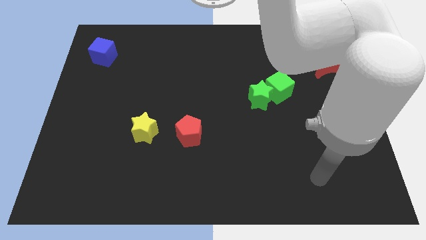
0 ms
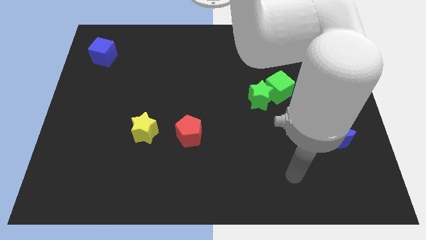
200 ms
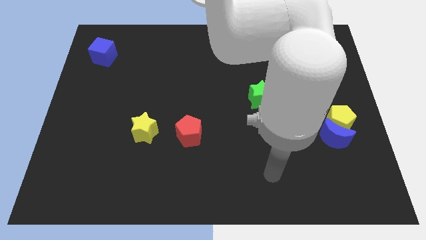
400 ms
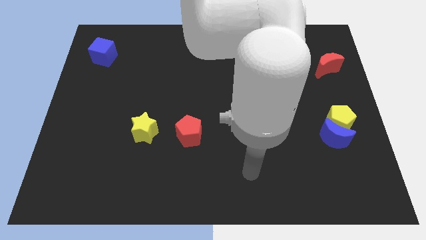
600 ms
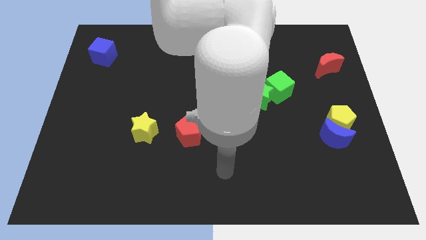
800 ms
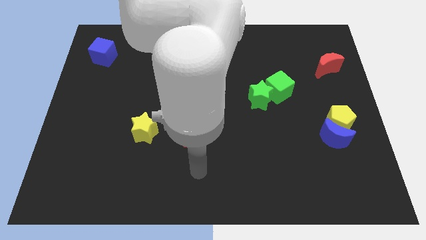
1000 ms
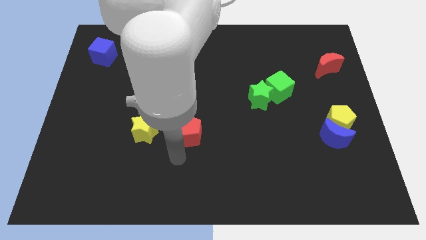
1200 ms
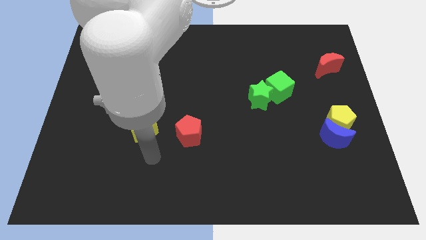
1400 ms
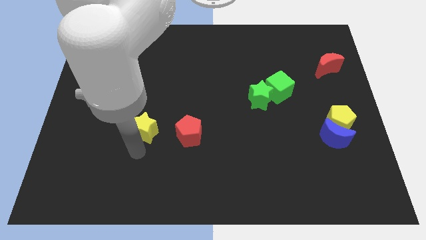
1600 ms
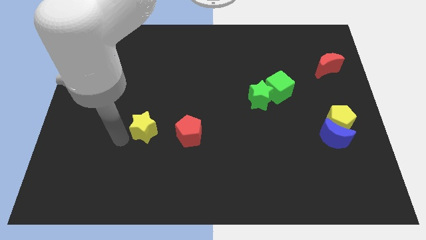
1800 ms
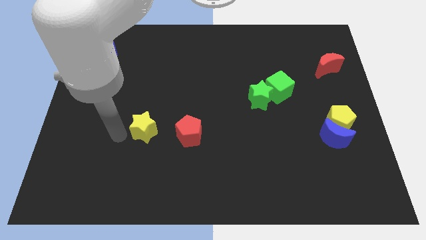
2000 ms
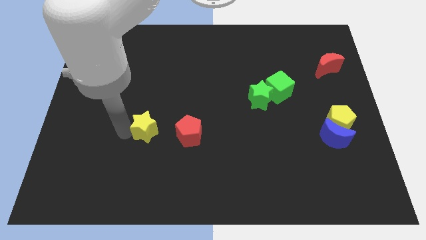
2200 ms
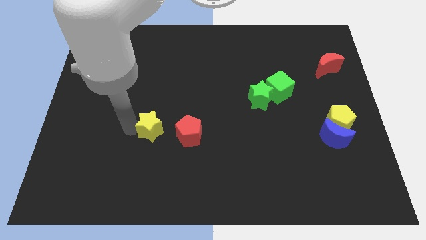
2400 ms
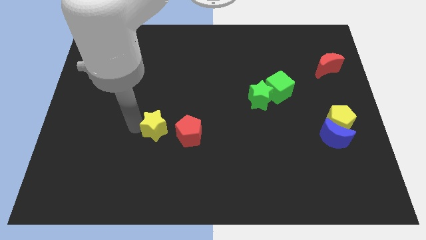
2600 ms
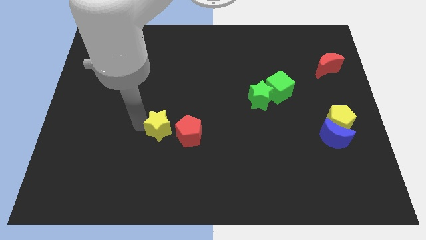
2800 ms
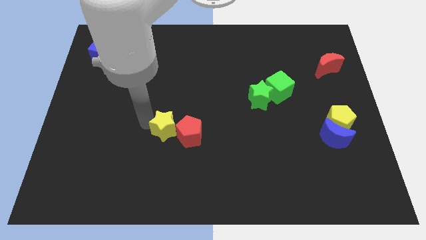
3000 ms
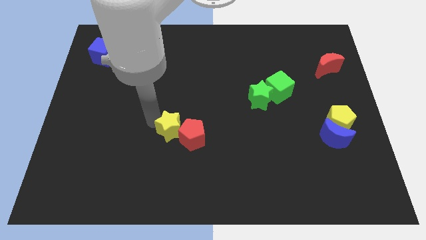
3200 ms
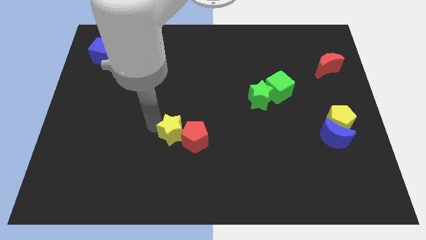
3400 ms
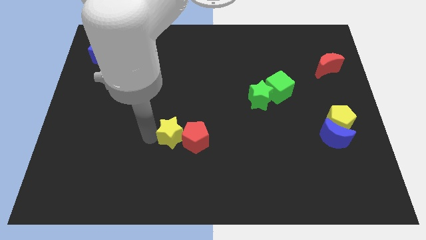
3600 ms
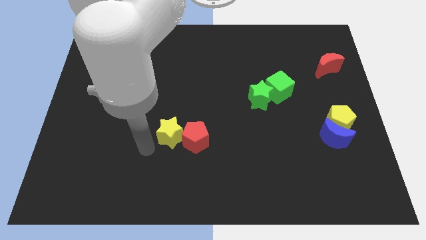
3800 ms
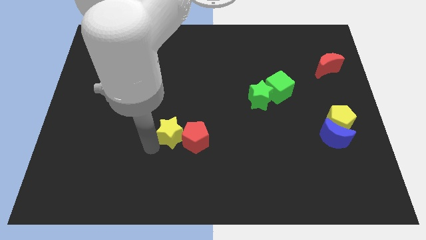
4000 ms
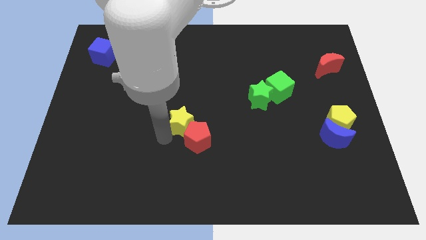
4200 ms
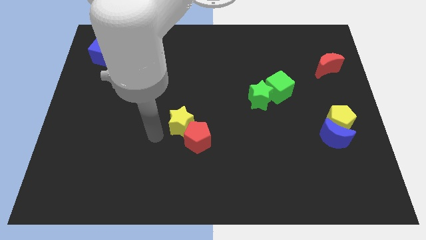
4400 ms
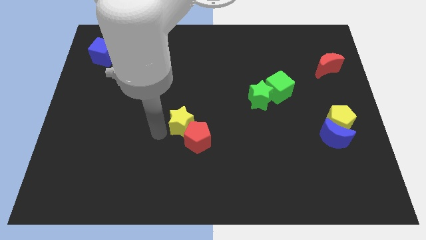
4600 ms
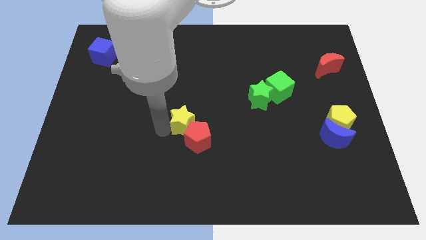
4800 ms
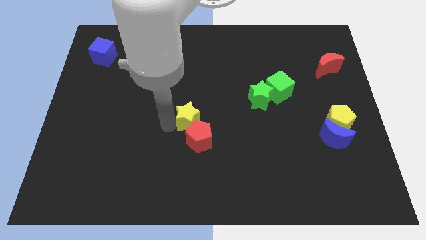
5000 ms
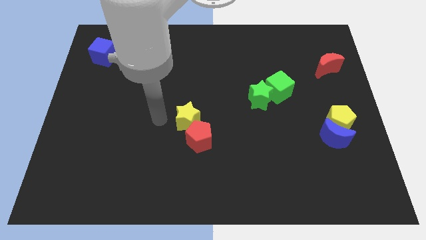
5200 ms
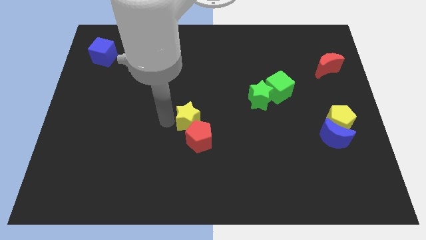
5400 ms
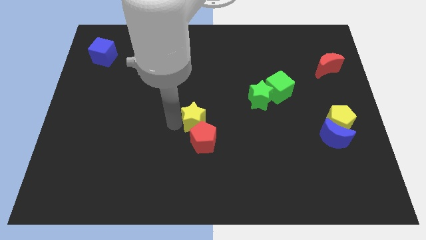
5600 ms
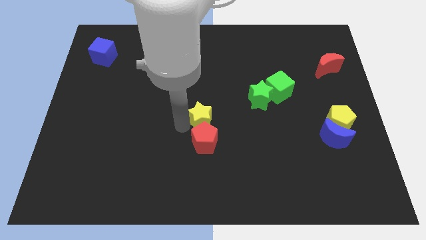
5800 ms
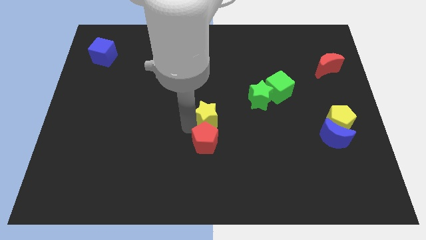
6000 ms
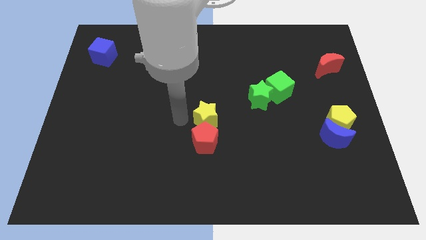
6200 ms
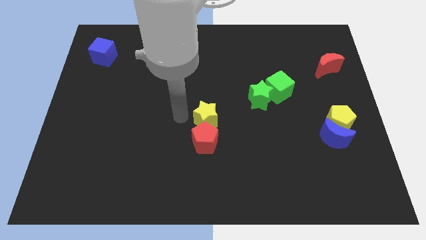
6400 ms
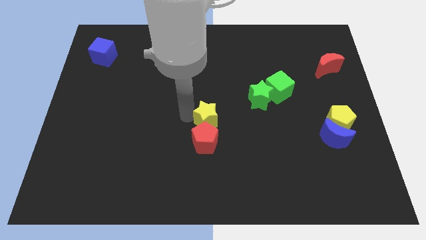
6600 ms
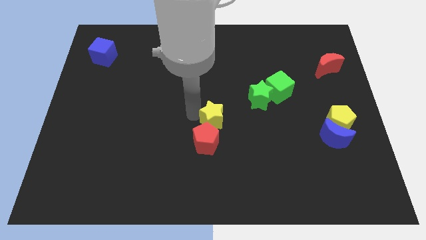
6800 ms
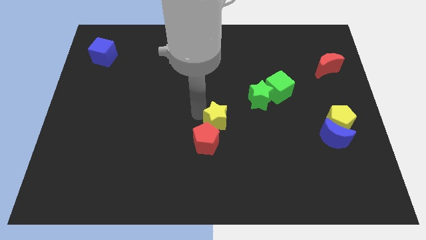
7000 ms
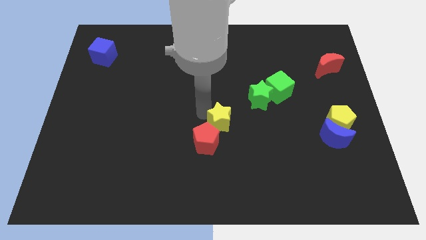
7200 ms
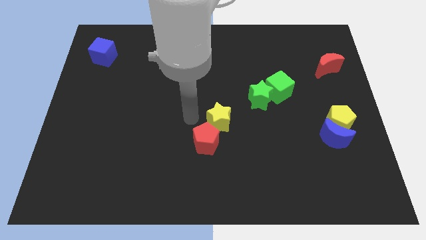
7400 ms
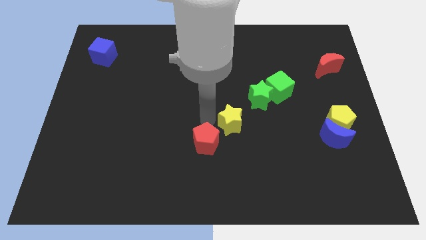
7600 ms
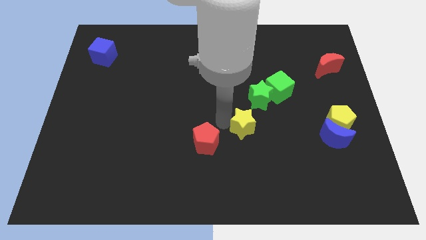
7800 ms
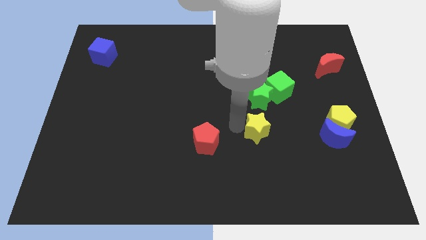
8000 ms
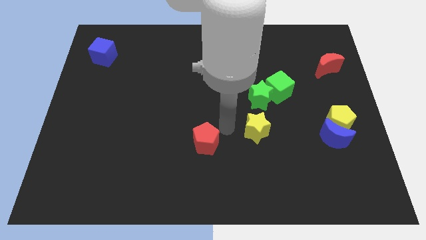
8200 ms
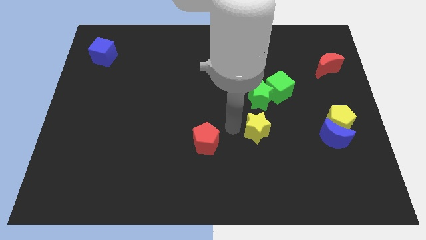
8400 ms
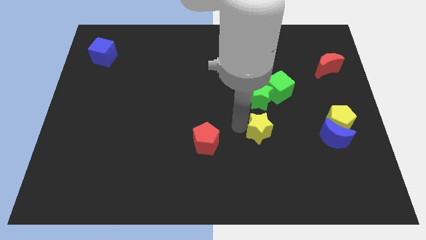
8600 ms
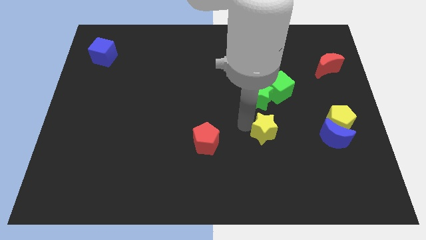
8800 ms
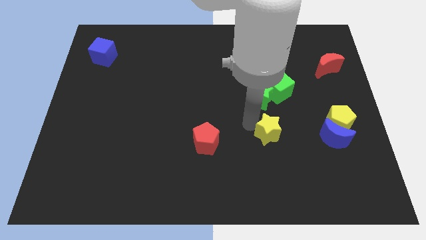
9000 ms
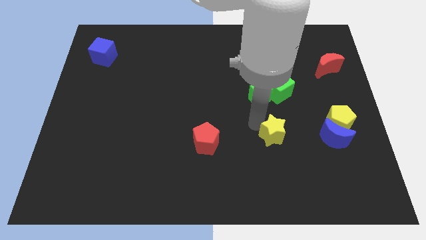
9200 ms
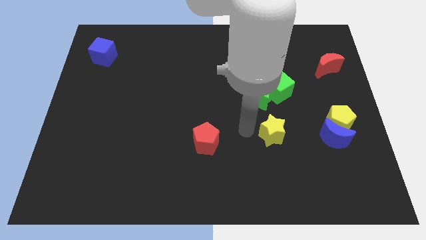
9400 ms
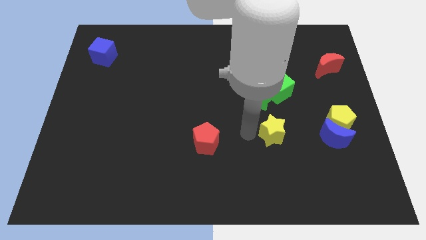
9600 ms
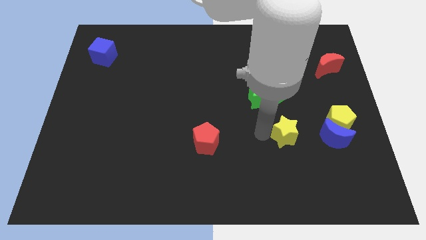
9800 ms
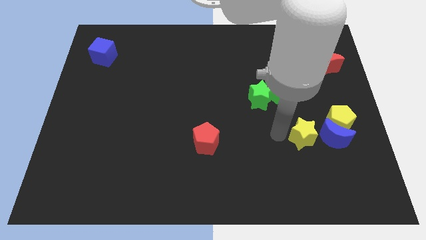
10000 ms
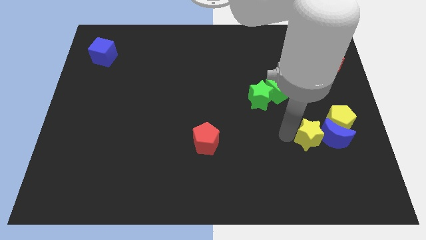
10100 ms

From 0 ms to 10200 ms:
push the yellow star to the blue moon

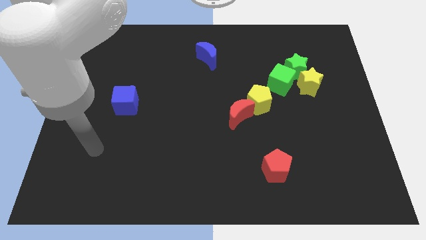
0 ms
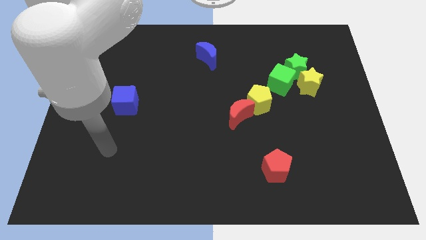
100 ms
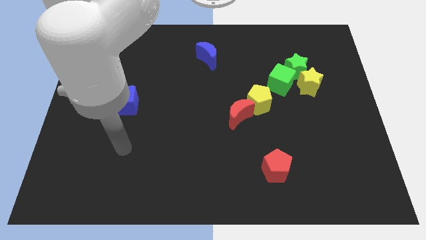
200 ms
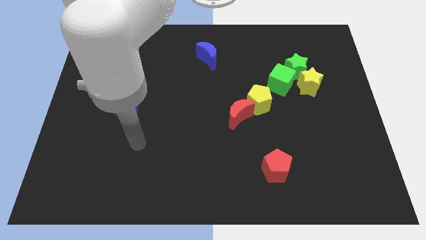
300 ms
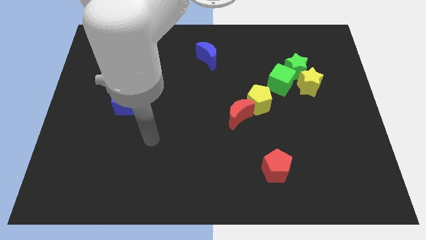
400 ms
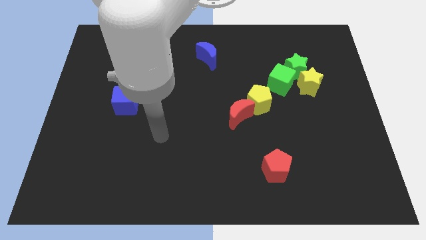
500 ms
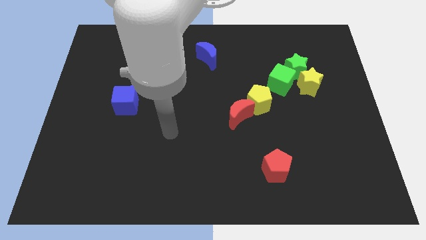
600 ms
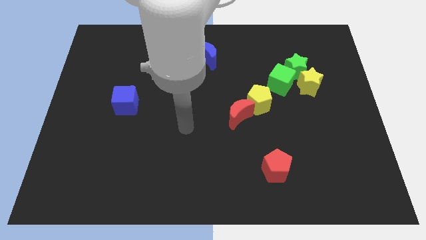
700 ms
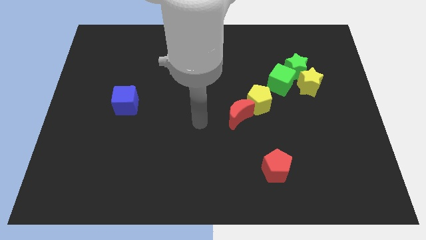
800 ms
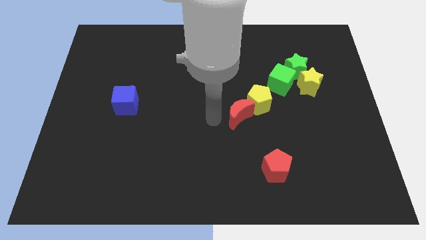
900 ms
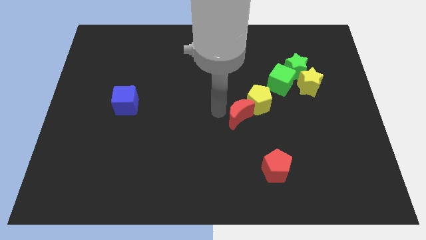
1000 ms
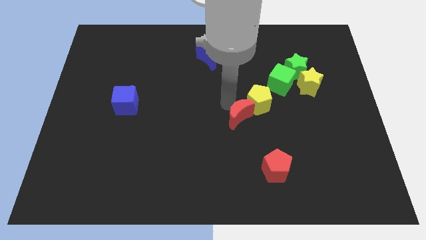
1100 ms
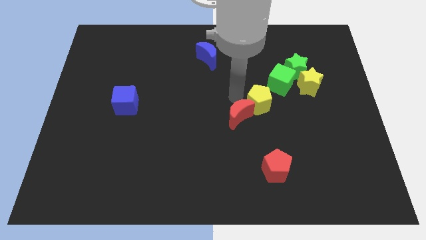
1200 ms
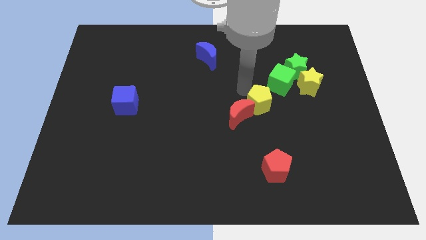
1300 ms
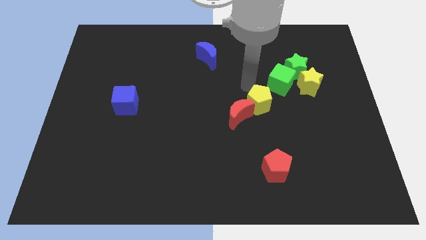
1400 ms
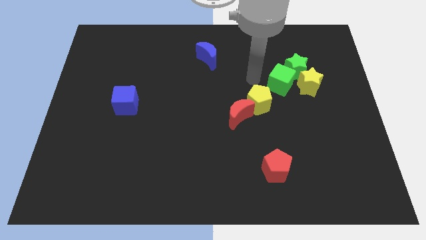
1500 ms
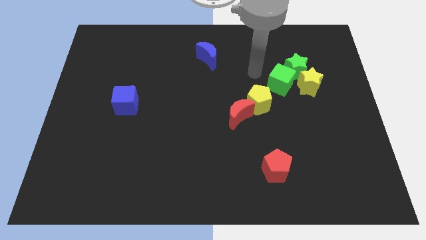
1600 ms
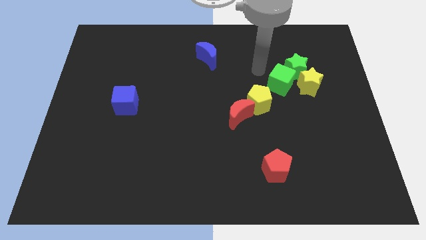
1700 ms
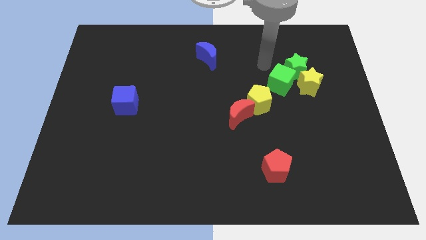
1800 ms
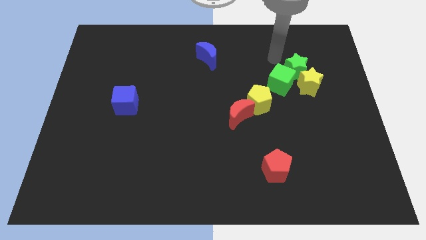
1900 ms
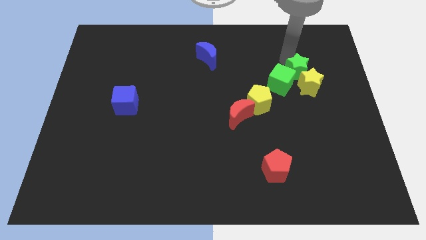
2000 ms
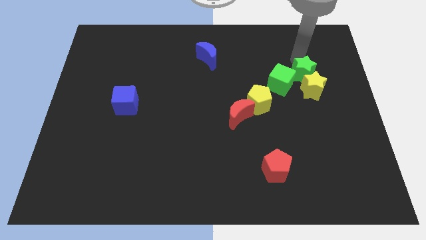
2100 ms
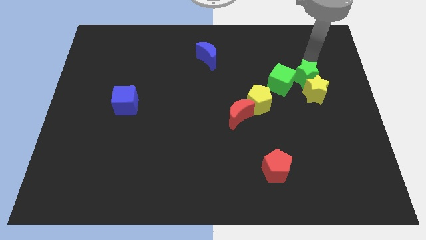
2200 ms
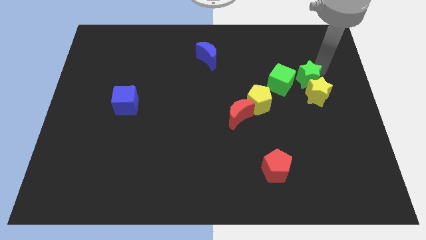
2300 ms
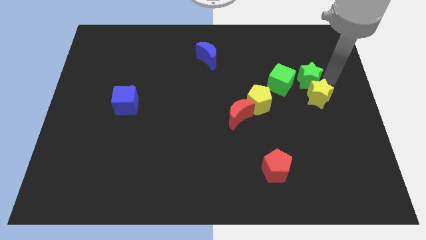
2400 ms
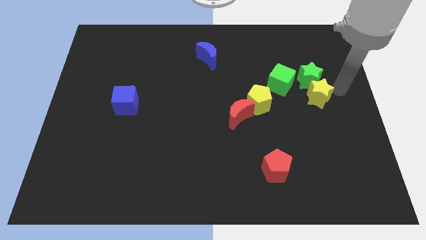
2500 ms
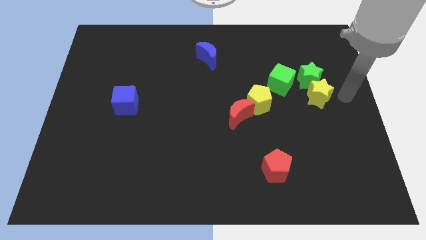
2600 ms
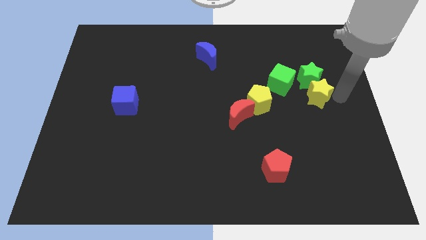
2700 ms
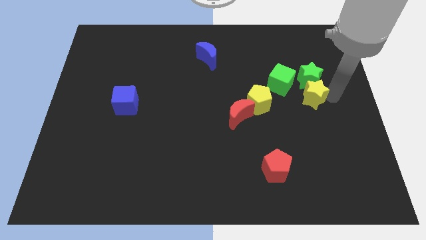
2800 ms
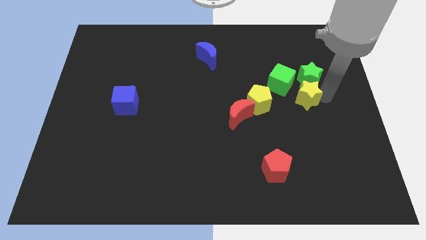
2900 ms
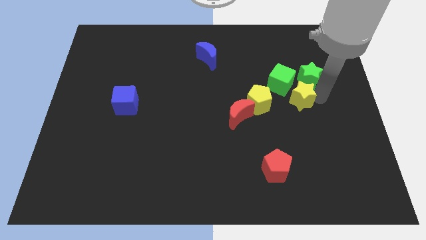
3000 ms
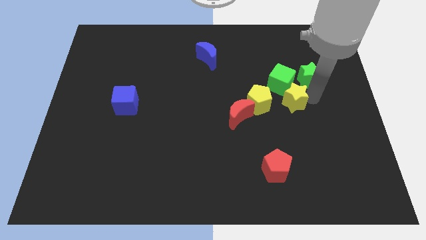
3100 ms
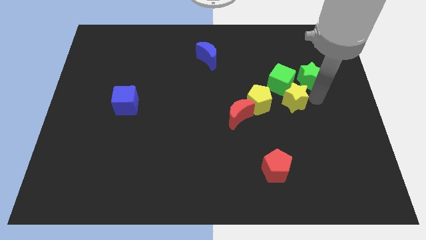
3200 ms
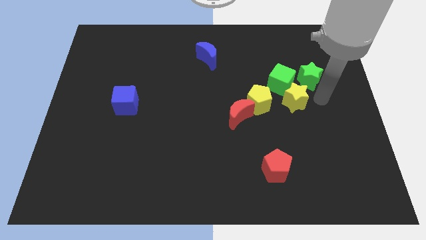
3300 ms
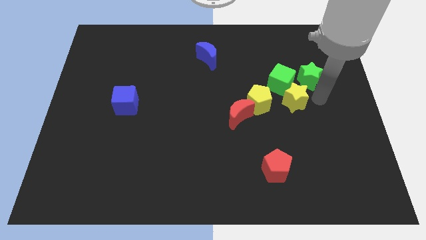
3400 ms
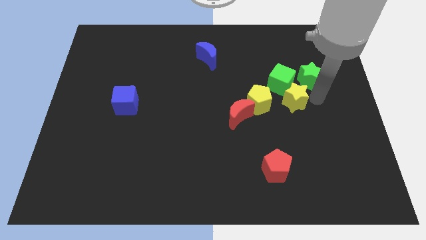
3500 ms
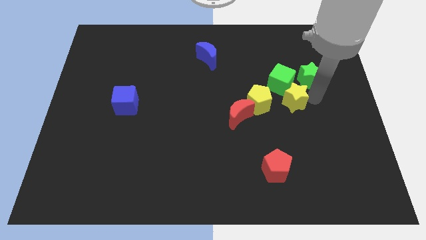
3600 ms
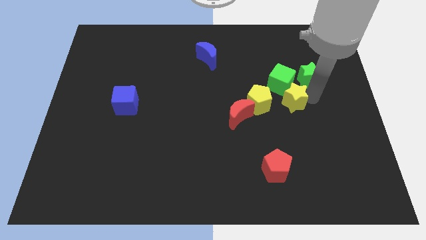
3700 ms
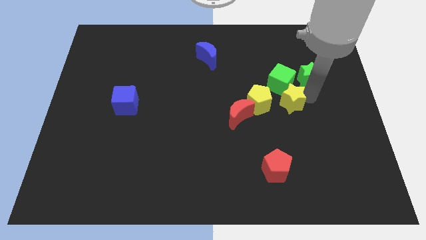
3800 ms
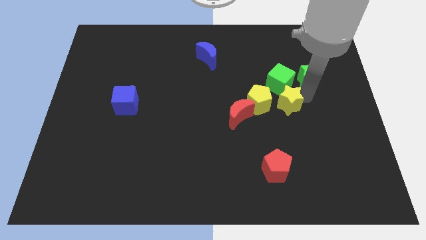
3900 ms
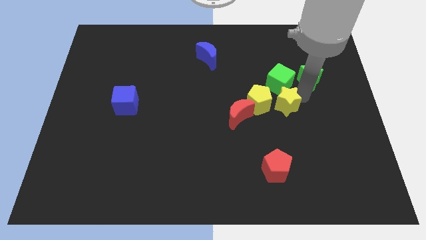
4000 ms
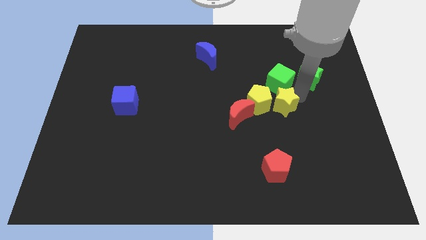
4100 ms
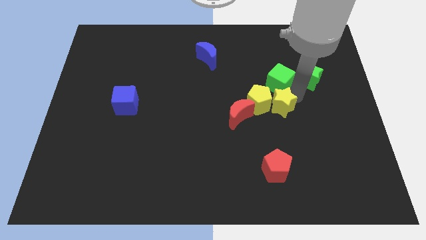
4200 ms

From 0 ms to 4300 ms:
move the yellow star to the yellow pentagon
